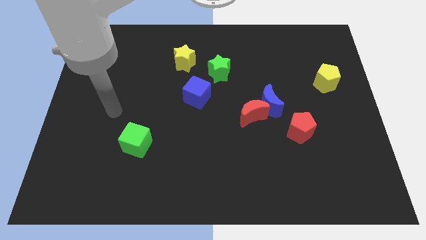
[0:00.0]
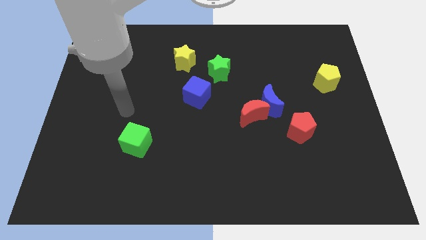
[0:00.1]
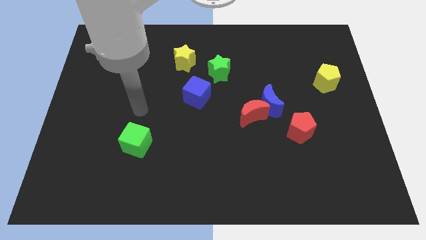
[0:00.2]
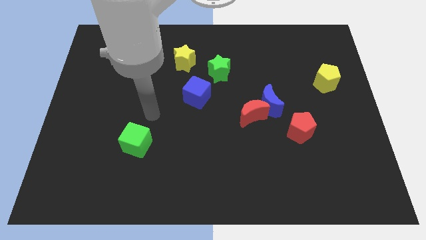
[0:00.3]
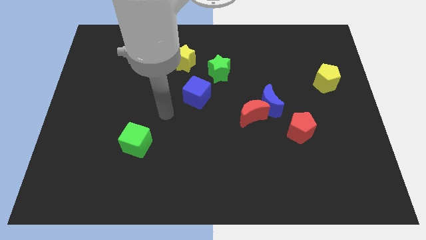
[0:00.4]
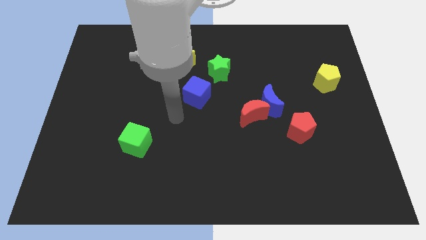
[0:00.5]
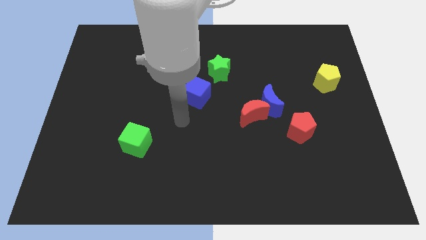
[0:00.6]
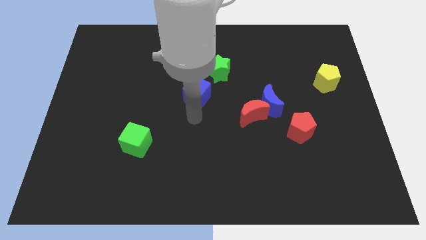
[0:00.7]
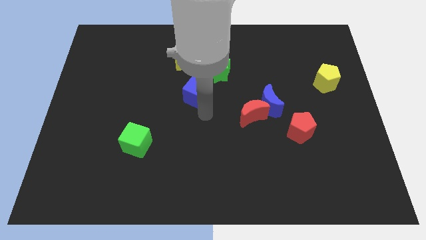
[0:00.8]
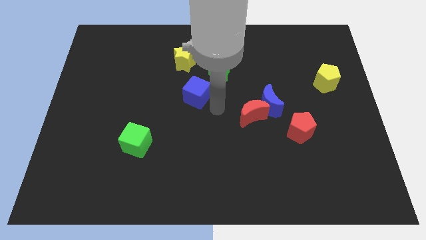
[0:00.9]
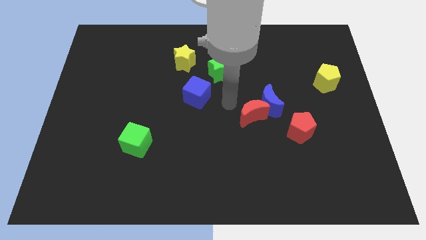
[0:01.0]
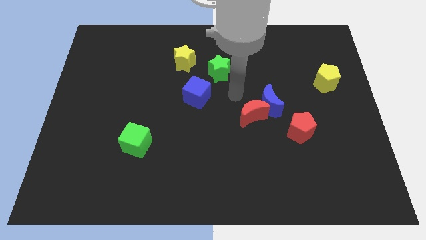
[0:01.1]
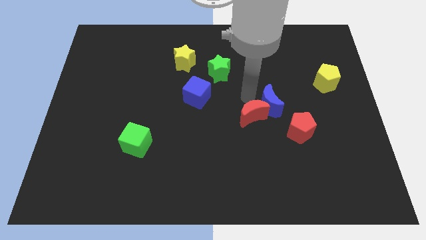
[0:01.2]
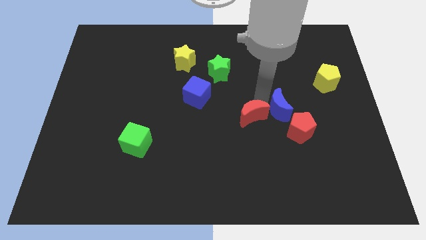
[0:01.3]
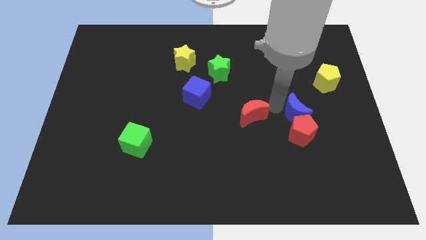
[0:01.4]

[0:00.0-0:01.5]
pull the red moon apart from the blue moon

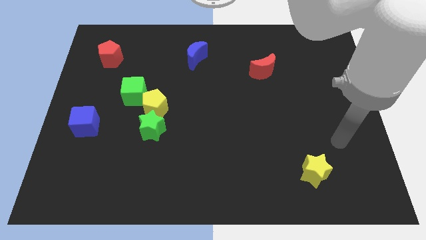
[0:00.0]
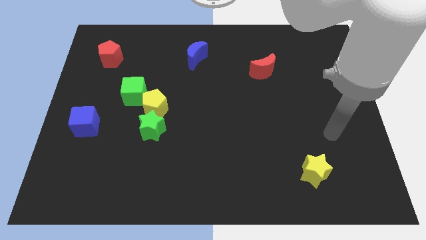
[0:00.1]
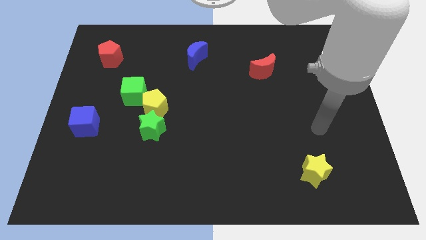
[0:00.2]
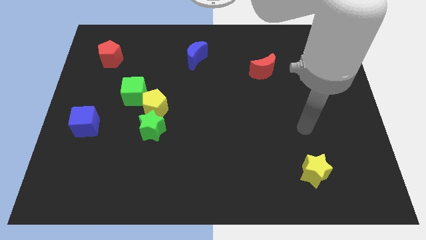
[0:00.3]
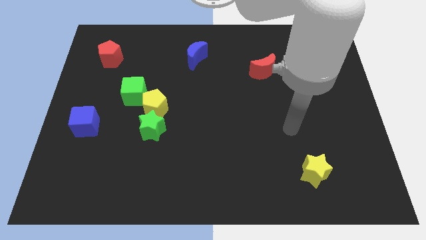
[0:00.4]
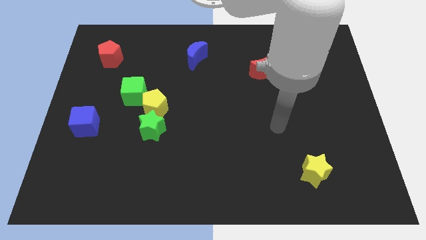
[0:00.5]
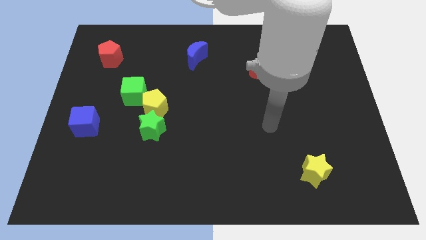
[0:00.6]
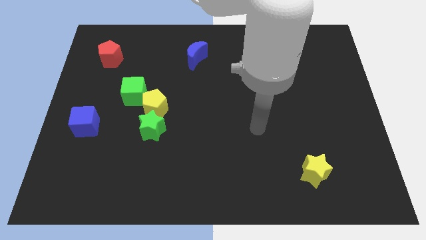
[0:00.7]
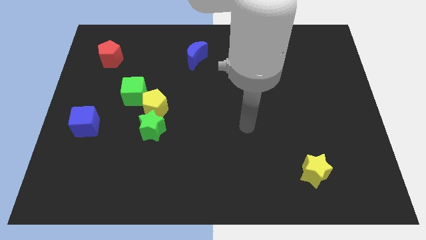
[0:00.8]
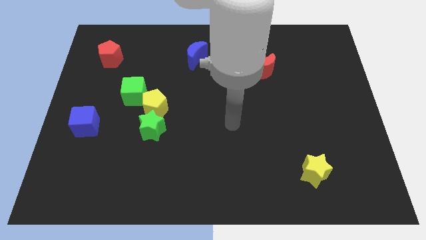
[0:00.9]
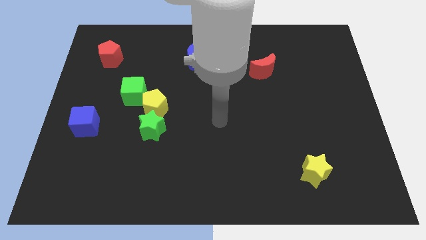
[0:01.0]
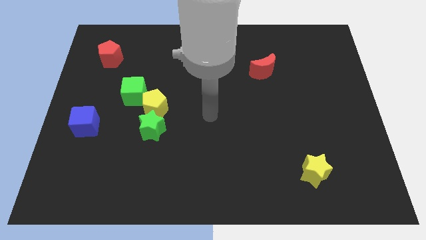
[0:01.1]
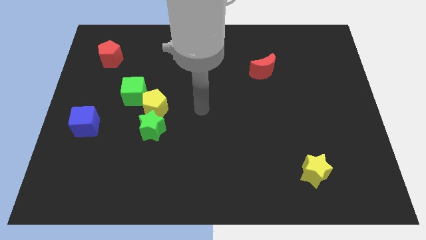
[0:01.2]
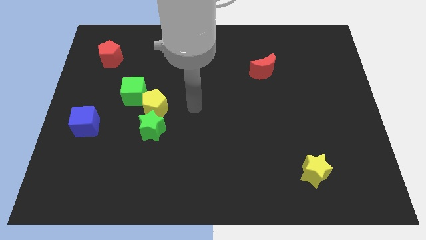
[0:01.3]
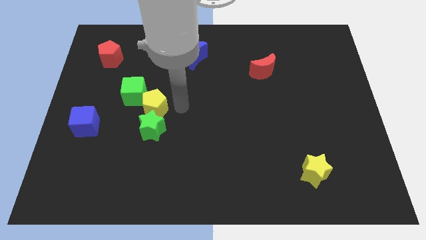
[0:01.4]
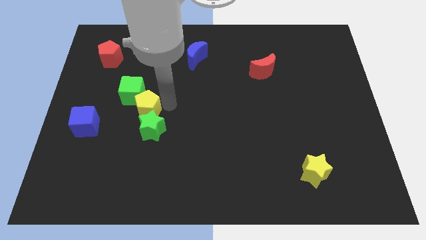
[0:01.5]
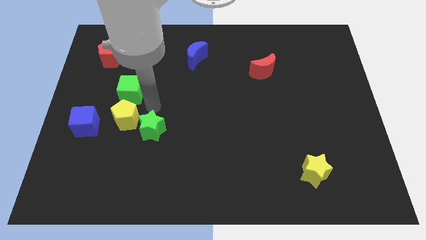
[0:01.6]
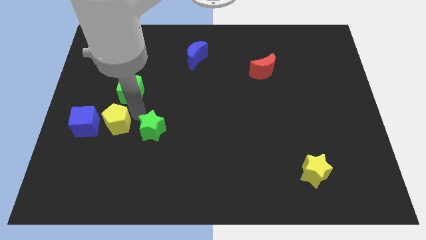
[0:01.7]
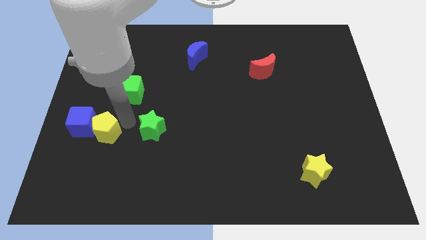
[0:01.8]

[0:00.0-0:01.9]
pull the green star apart from the yellow pentagon

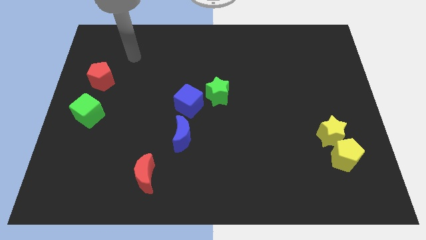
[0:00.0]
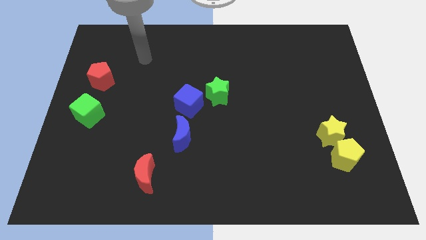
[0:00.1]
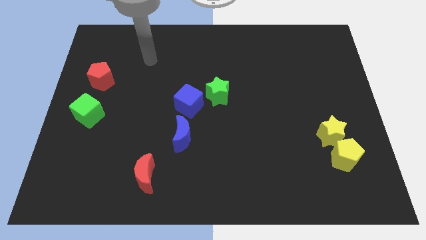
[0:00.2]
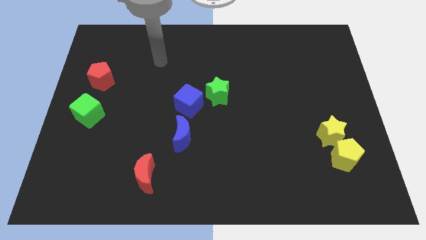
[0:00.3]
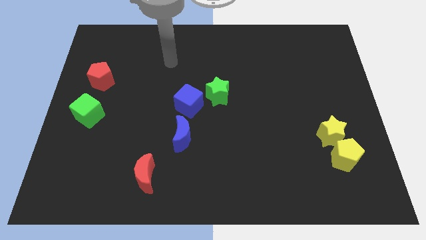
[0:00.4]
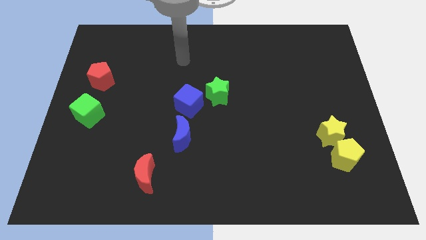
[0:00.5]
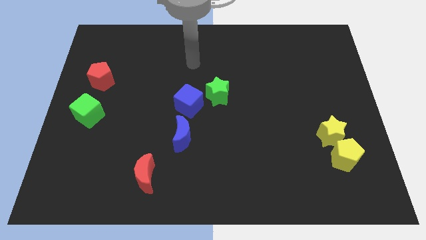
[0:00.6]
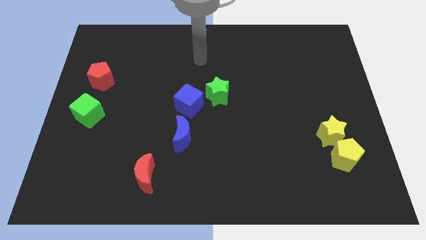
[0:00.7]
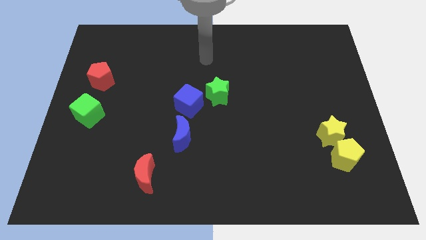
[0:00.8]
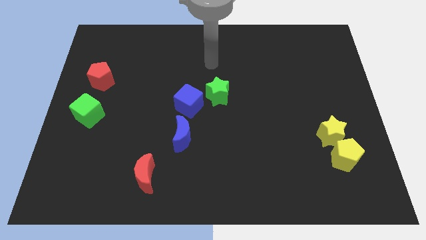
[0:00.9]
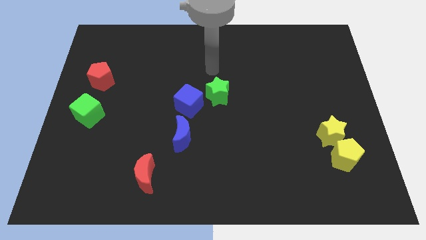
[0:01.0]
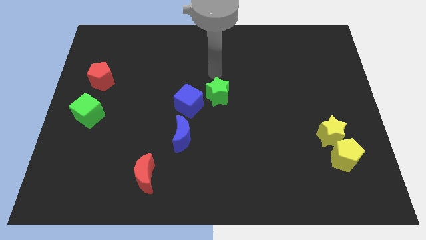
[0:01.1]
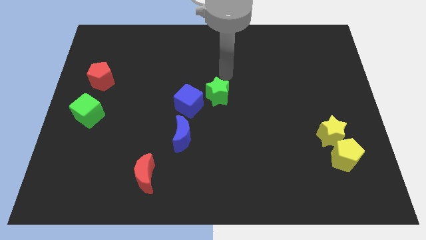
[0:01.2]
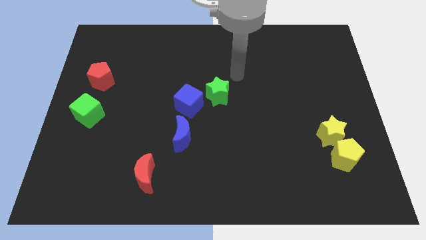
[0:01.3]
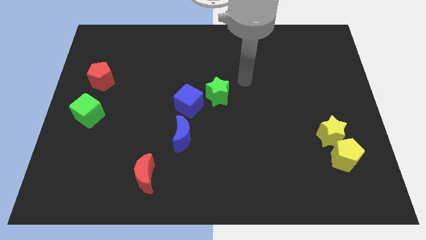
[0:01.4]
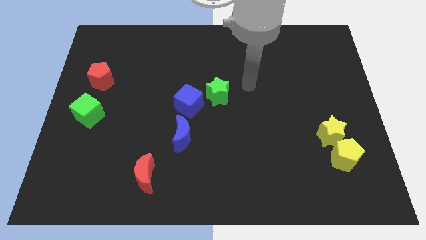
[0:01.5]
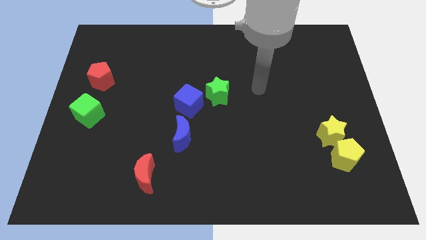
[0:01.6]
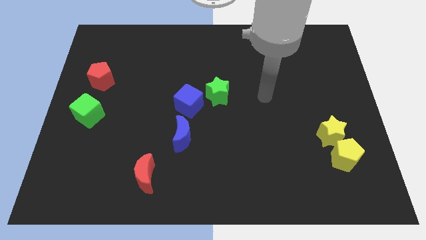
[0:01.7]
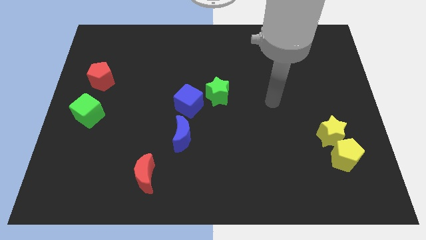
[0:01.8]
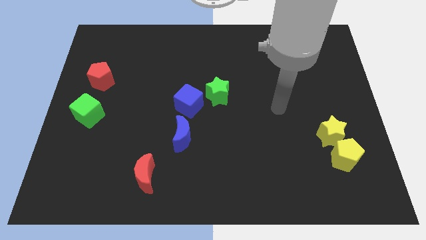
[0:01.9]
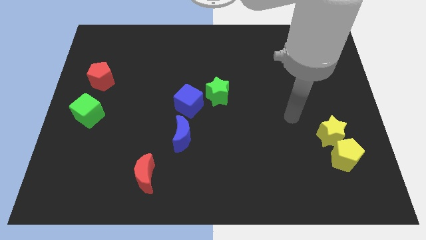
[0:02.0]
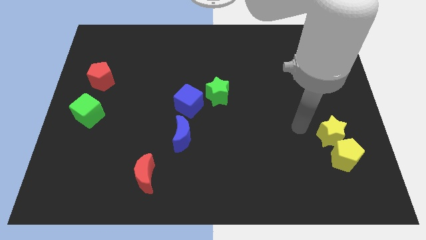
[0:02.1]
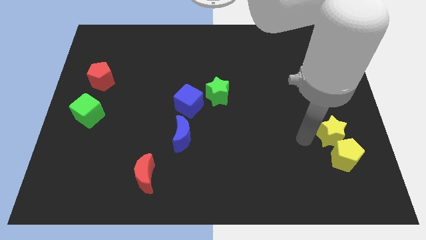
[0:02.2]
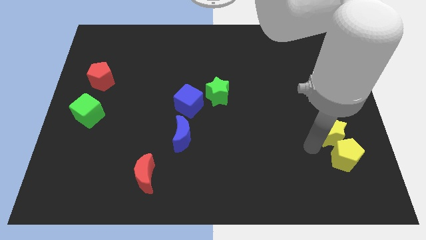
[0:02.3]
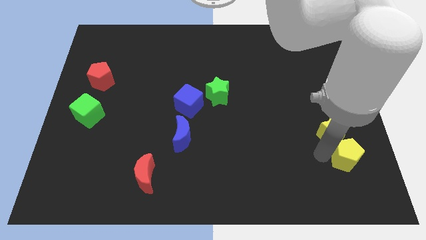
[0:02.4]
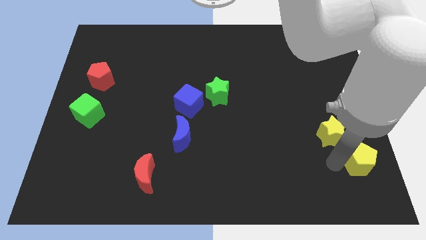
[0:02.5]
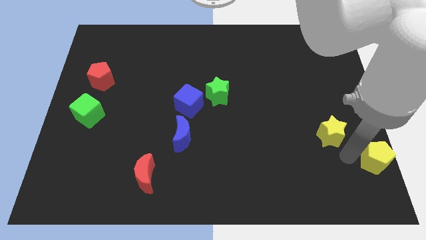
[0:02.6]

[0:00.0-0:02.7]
pull the yellow star apart from the yellow pentagon

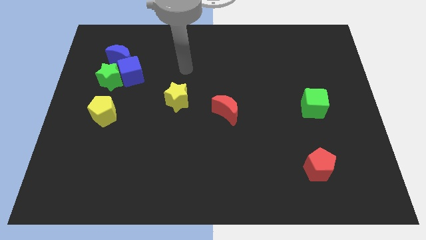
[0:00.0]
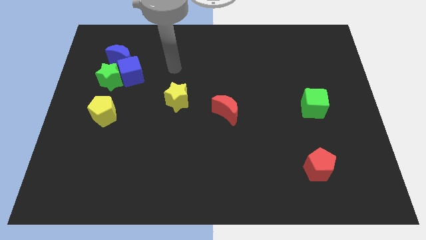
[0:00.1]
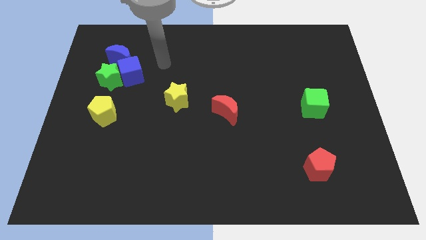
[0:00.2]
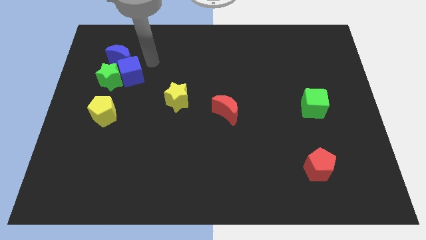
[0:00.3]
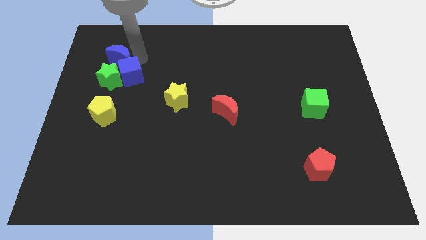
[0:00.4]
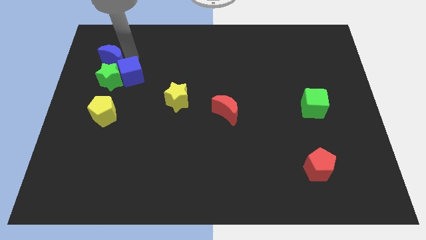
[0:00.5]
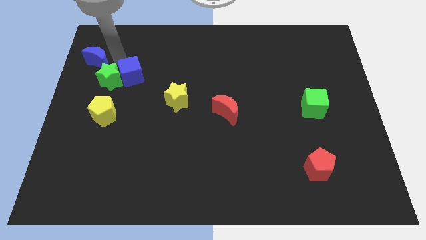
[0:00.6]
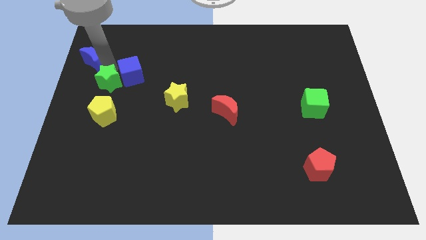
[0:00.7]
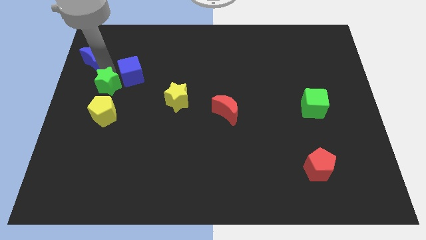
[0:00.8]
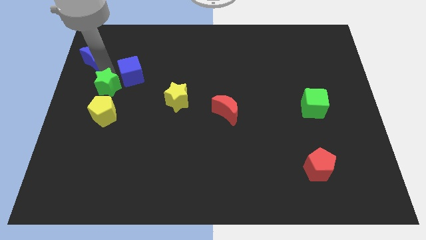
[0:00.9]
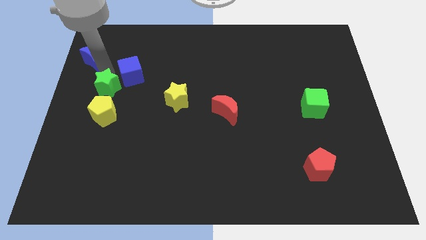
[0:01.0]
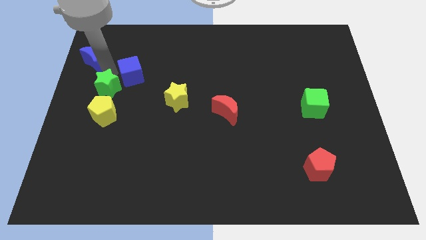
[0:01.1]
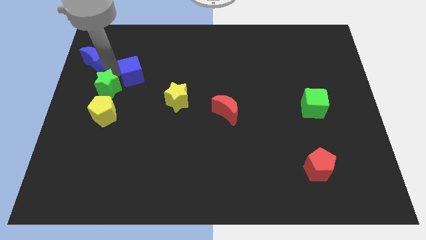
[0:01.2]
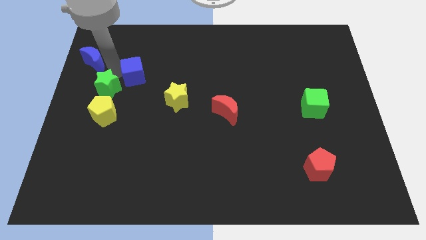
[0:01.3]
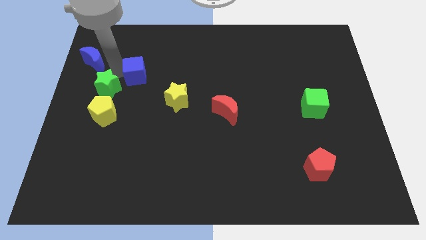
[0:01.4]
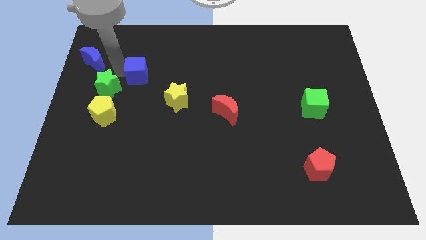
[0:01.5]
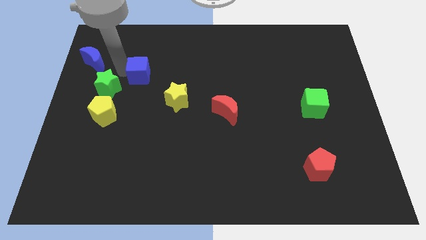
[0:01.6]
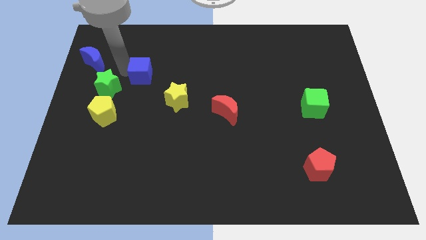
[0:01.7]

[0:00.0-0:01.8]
move the blue cube away from the green star and blue moon

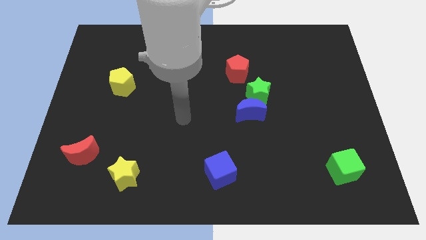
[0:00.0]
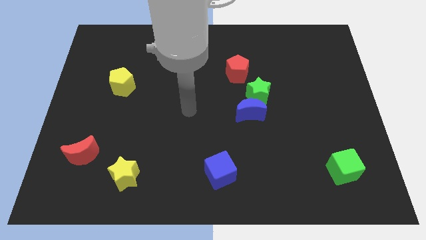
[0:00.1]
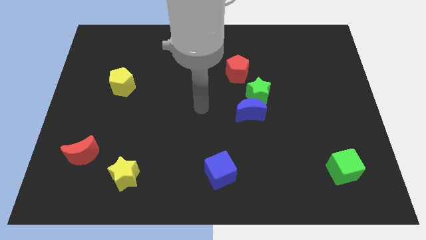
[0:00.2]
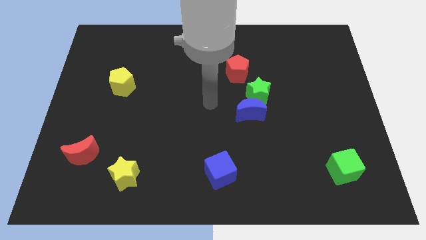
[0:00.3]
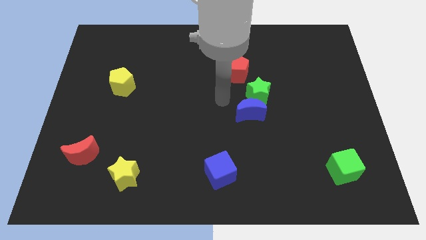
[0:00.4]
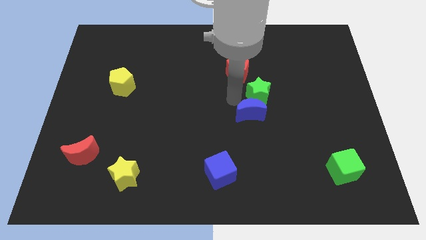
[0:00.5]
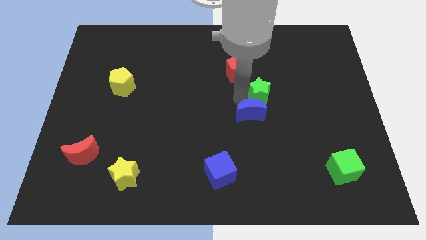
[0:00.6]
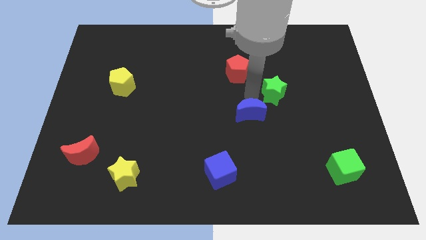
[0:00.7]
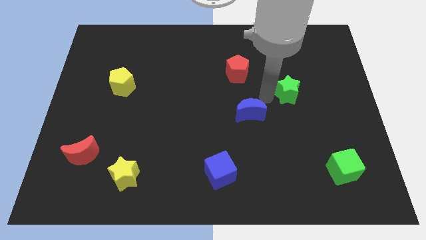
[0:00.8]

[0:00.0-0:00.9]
pull the blue moon apart from the green star

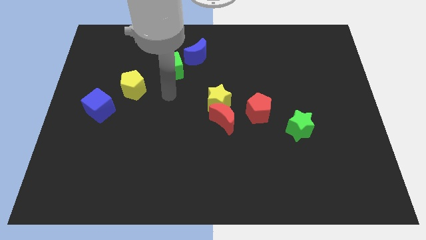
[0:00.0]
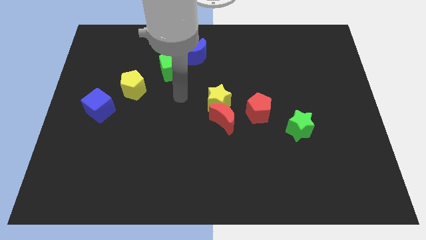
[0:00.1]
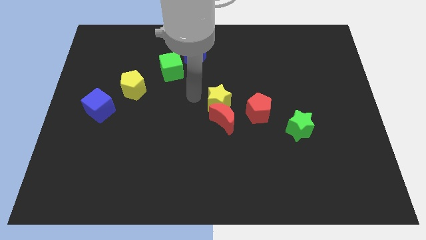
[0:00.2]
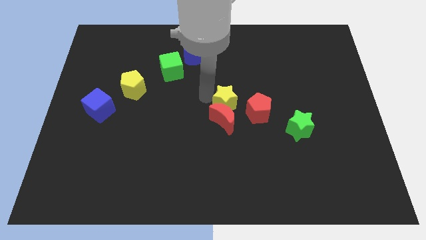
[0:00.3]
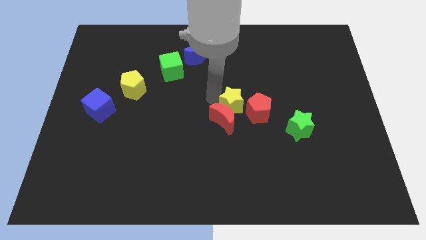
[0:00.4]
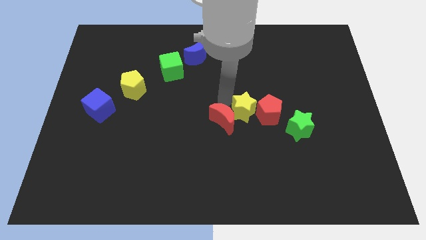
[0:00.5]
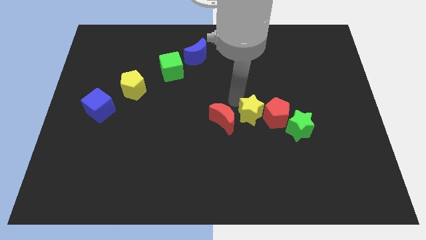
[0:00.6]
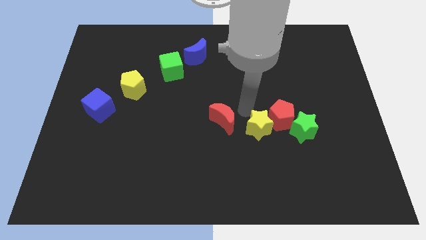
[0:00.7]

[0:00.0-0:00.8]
move the red moon away from the yellow star and red pentagon
